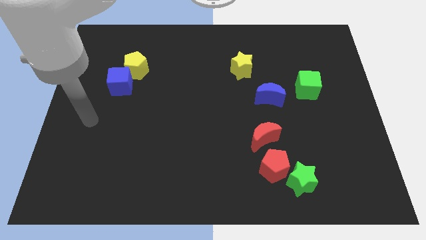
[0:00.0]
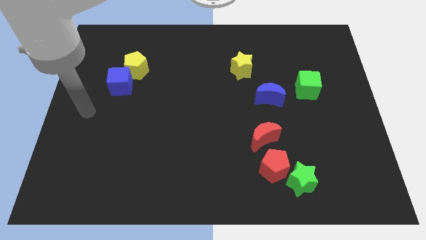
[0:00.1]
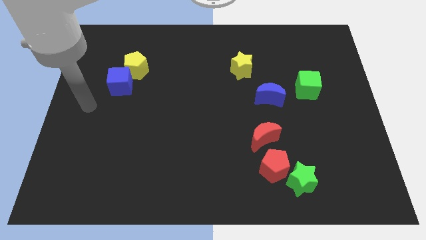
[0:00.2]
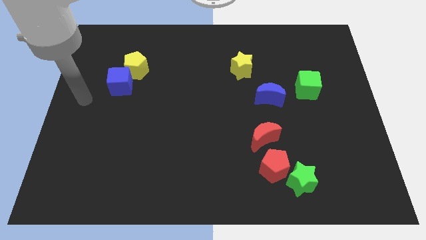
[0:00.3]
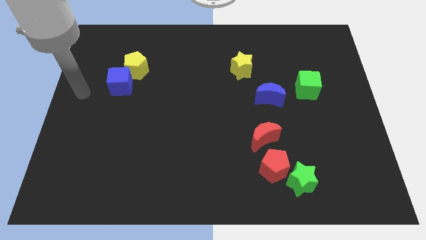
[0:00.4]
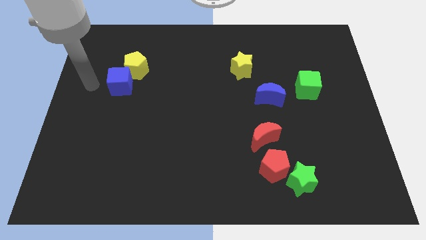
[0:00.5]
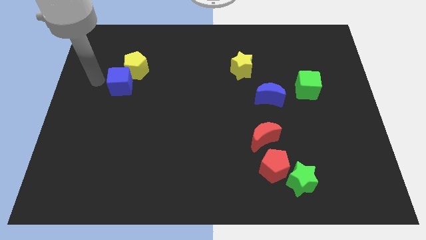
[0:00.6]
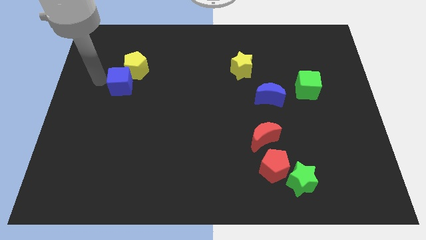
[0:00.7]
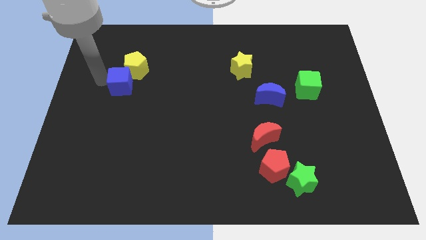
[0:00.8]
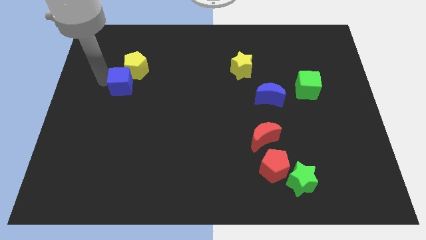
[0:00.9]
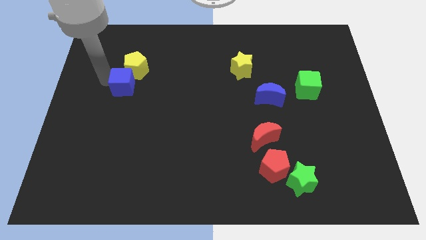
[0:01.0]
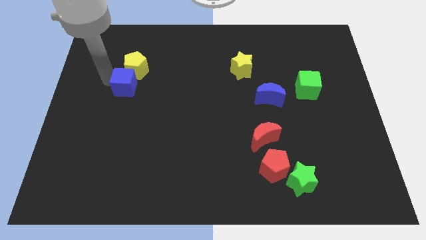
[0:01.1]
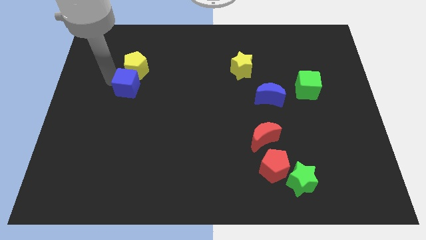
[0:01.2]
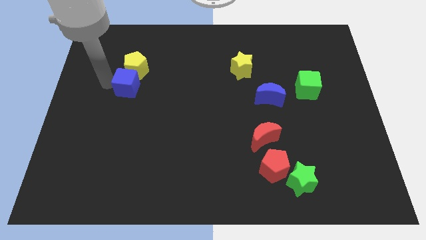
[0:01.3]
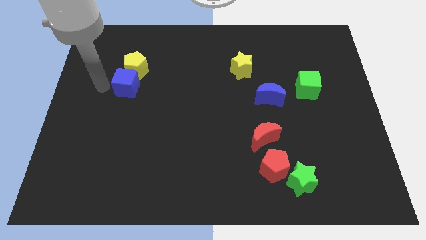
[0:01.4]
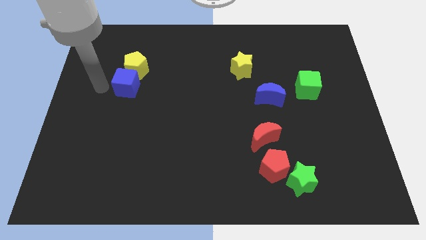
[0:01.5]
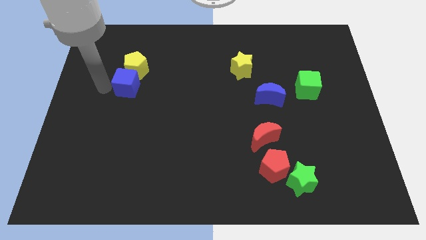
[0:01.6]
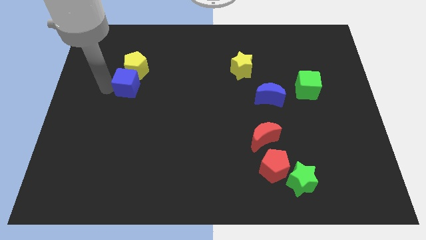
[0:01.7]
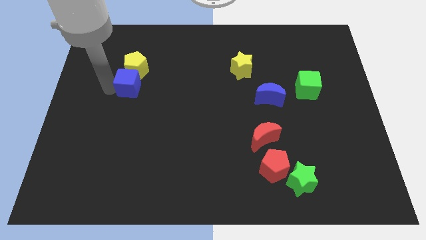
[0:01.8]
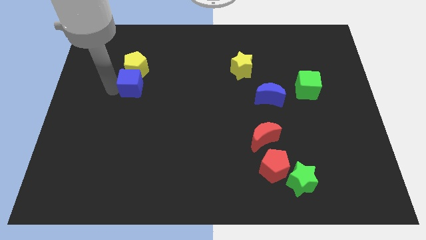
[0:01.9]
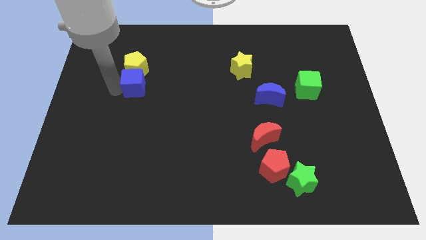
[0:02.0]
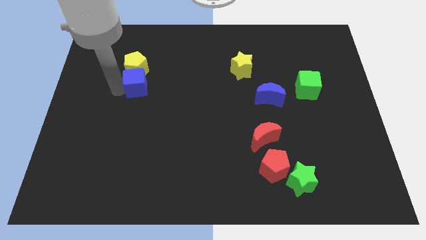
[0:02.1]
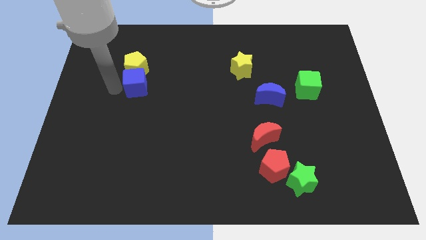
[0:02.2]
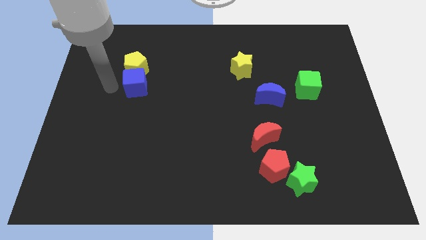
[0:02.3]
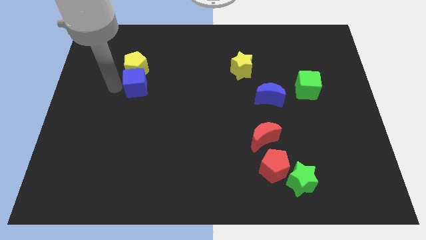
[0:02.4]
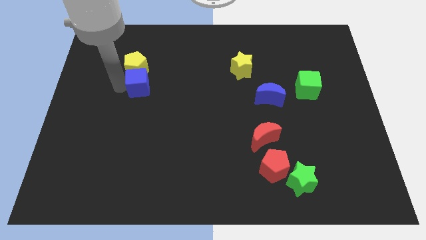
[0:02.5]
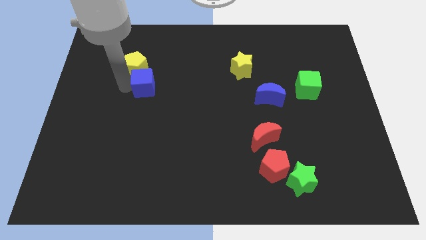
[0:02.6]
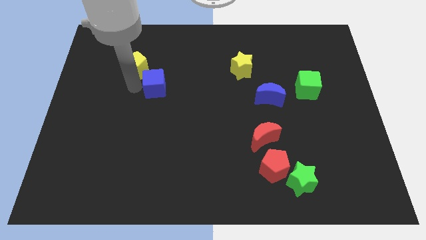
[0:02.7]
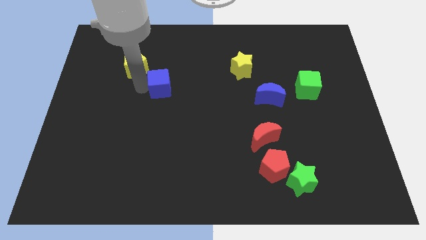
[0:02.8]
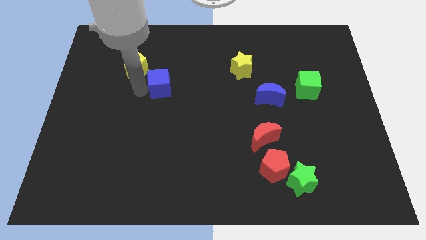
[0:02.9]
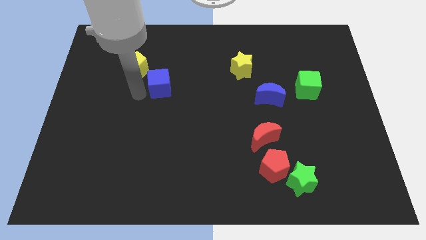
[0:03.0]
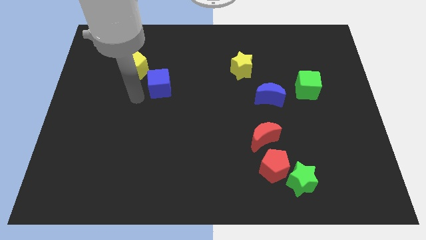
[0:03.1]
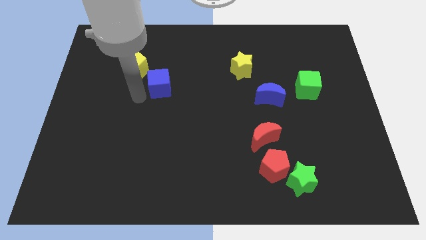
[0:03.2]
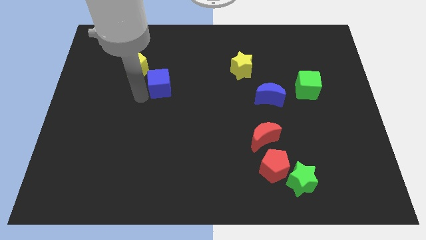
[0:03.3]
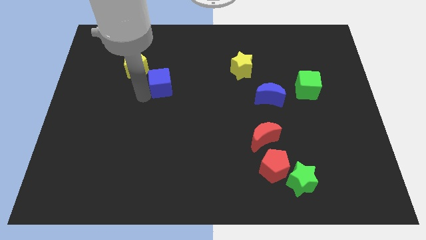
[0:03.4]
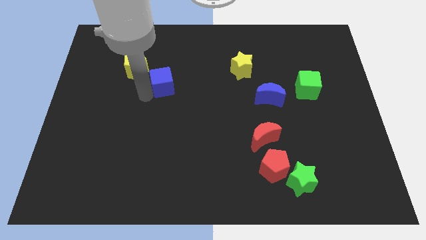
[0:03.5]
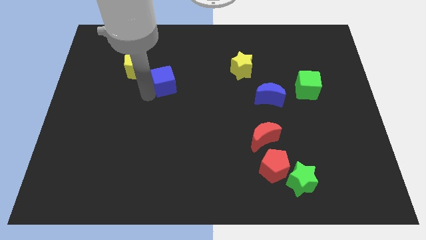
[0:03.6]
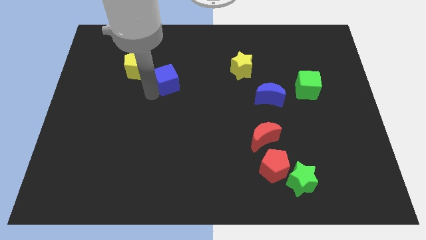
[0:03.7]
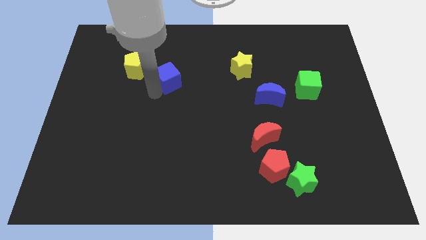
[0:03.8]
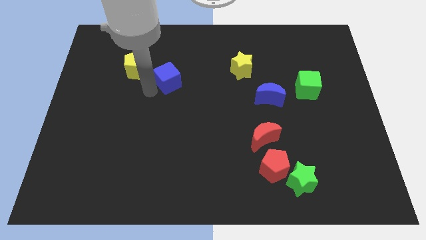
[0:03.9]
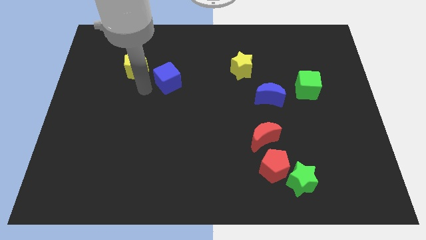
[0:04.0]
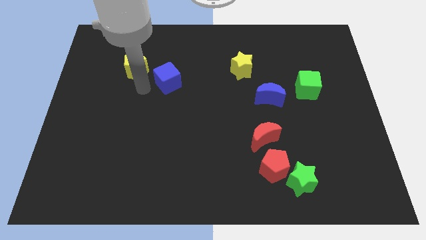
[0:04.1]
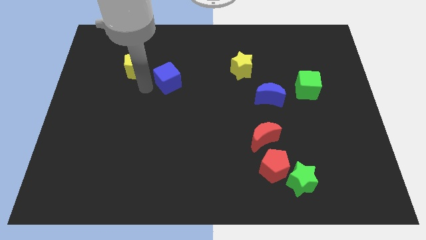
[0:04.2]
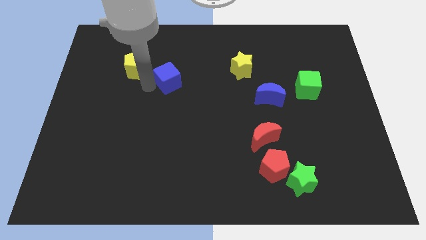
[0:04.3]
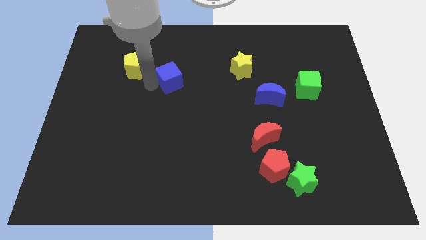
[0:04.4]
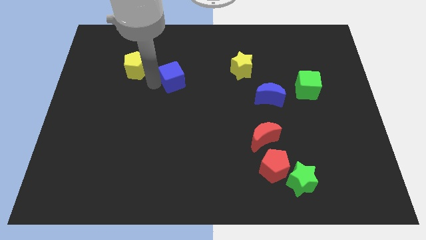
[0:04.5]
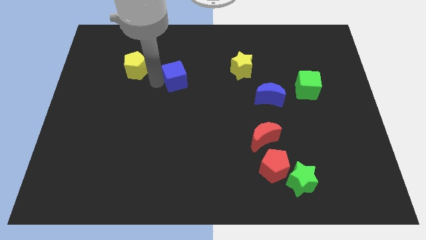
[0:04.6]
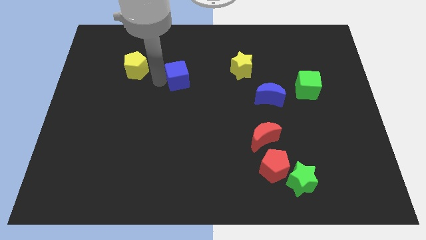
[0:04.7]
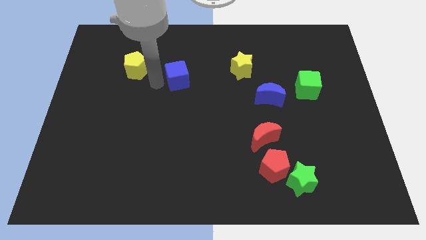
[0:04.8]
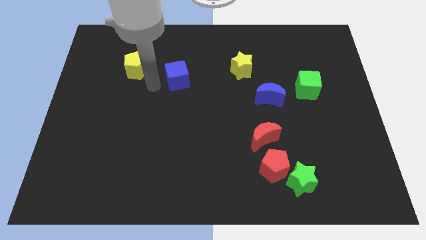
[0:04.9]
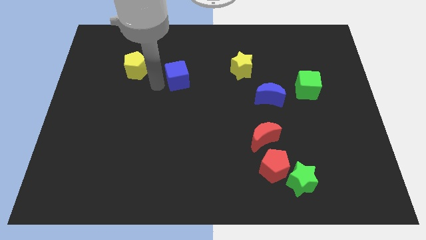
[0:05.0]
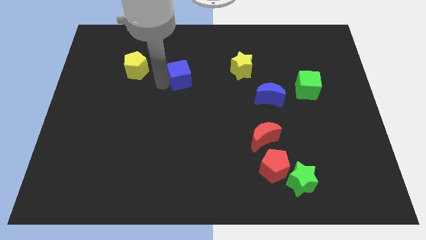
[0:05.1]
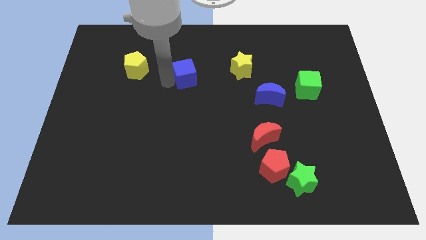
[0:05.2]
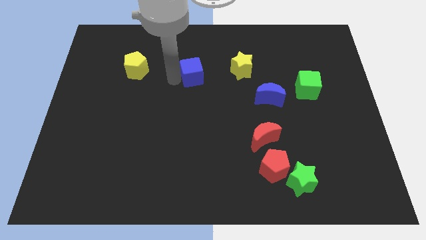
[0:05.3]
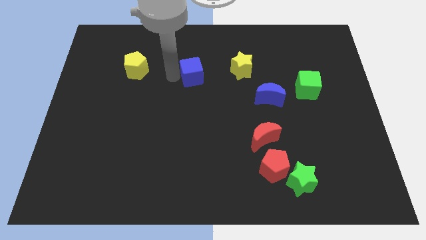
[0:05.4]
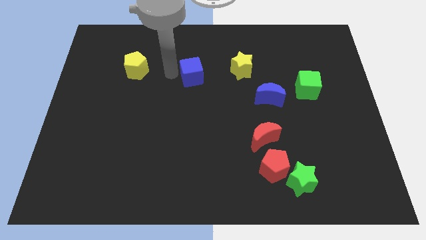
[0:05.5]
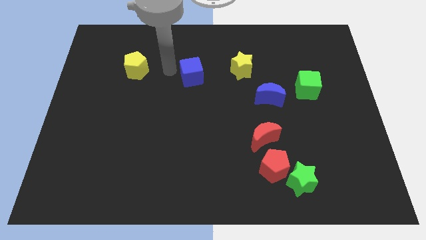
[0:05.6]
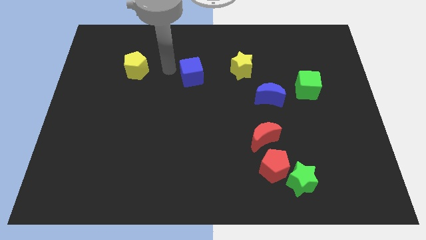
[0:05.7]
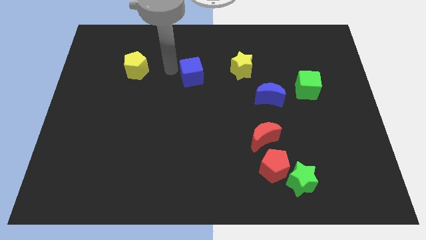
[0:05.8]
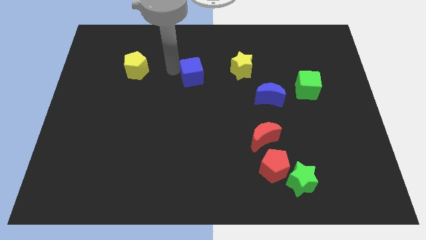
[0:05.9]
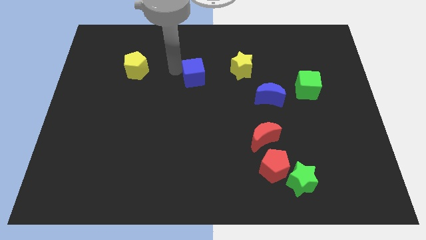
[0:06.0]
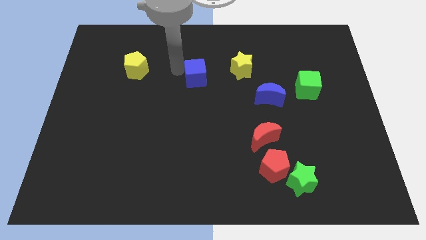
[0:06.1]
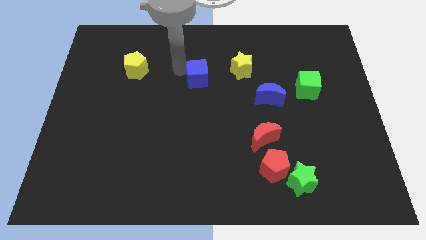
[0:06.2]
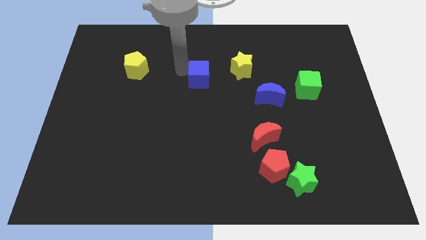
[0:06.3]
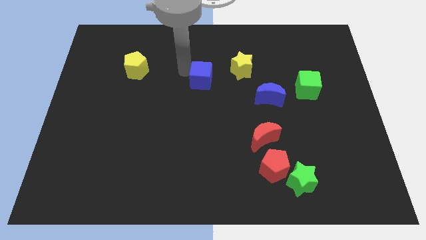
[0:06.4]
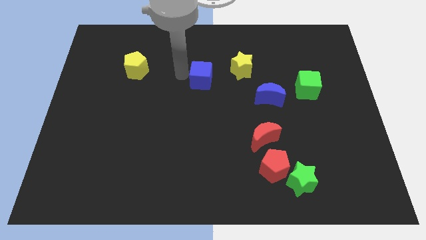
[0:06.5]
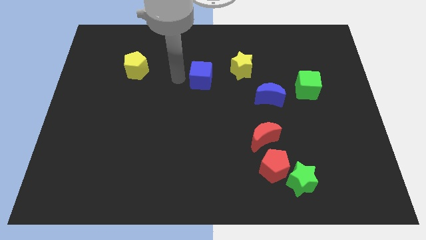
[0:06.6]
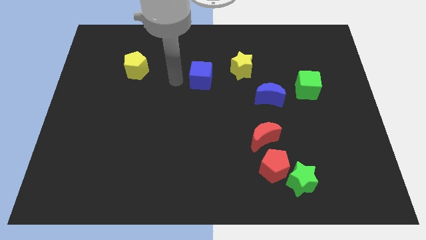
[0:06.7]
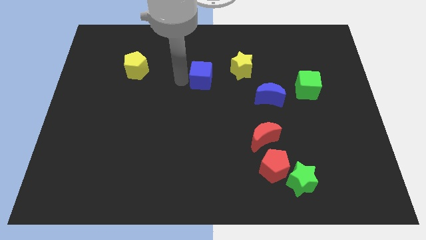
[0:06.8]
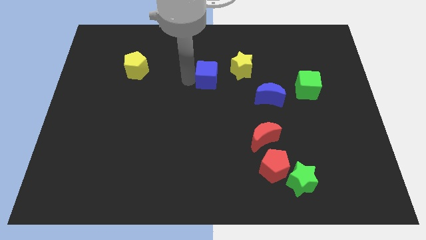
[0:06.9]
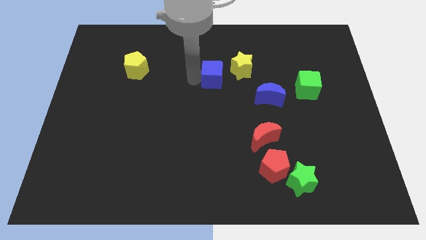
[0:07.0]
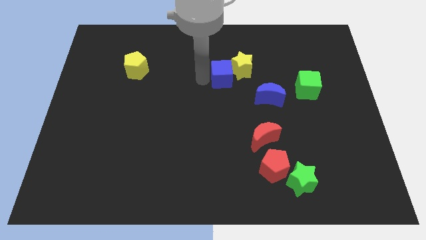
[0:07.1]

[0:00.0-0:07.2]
move the blue cube close to the yellow star

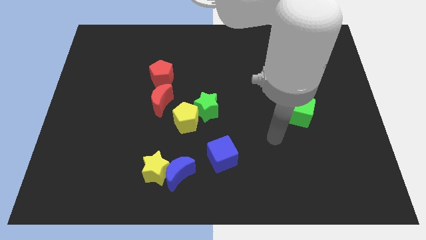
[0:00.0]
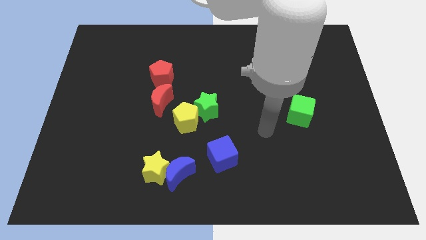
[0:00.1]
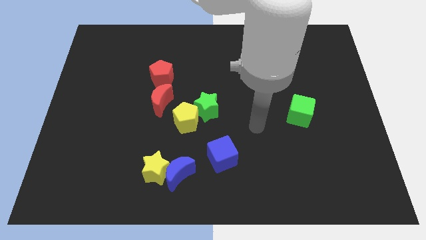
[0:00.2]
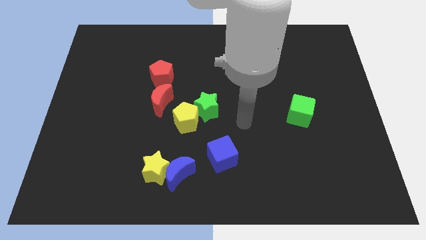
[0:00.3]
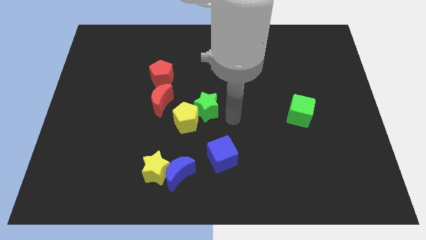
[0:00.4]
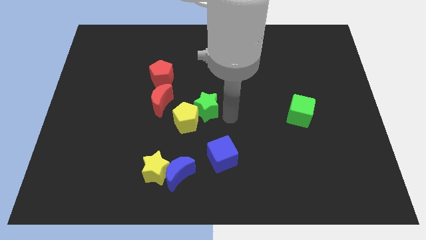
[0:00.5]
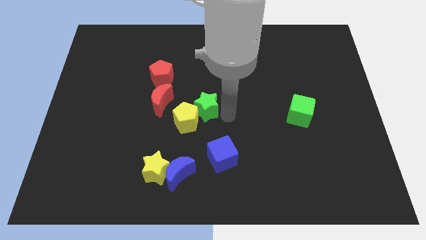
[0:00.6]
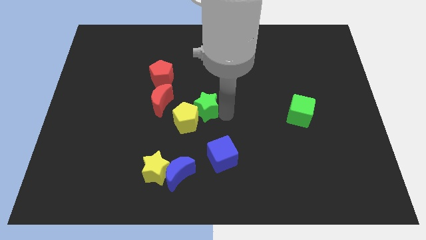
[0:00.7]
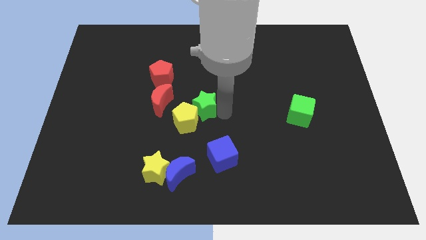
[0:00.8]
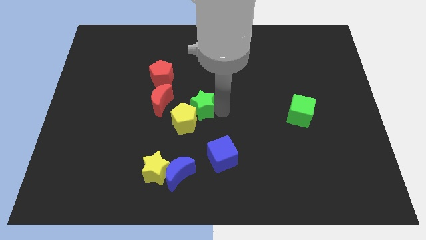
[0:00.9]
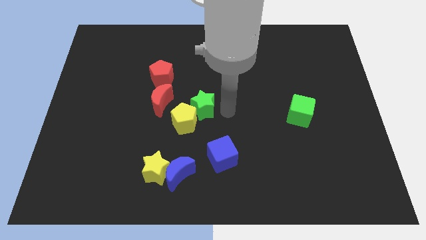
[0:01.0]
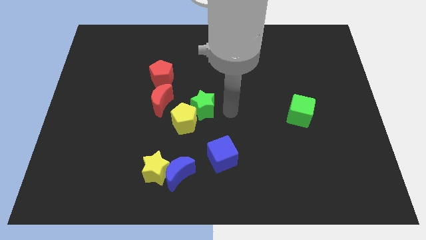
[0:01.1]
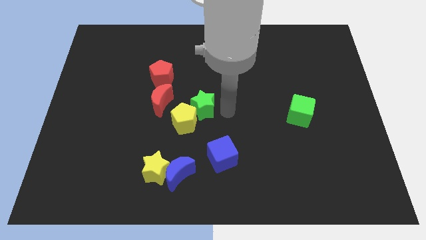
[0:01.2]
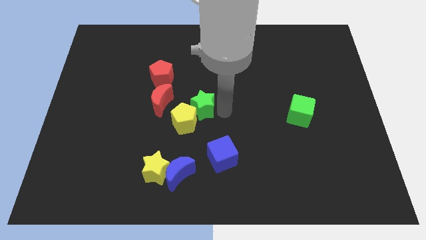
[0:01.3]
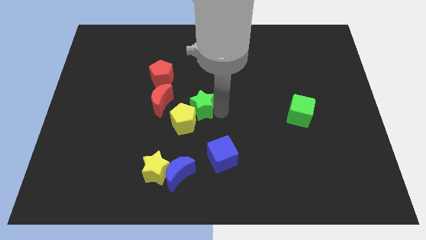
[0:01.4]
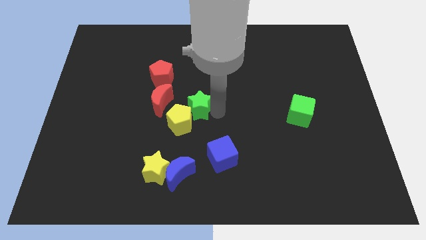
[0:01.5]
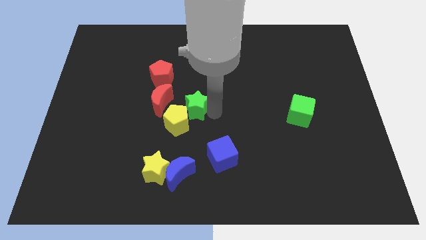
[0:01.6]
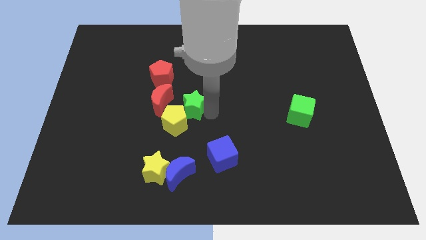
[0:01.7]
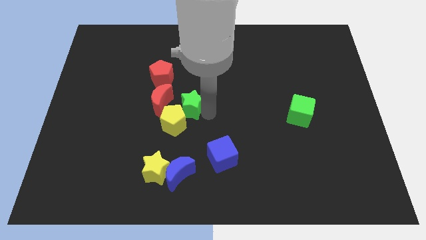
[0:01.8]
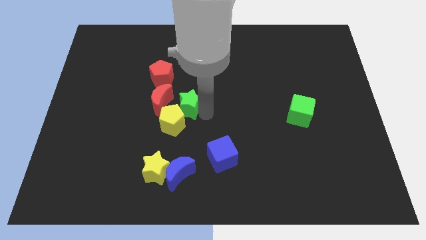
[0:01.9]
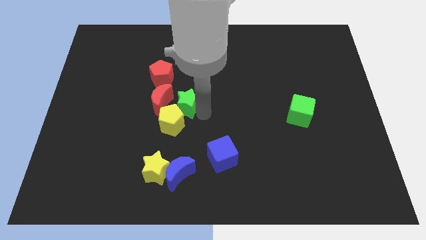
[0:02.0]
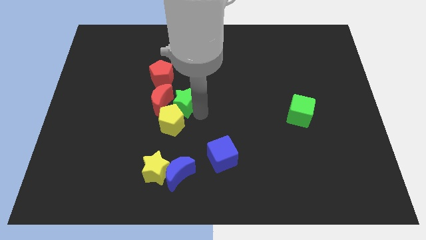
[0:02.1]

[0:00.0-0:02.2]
move the green star towards the red moon
